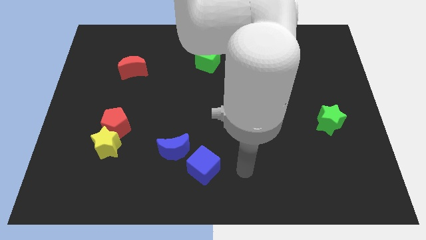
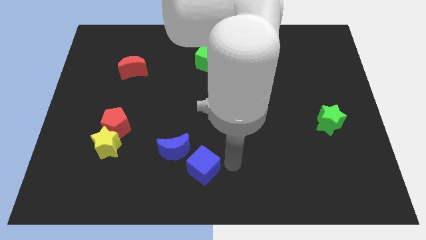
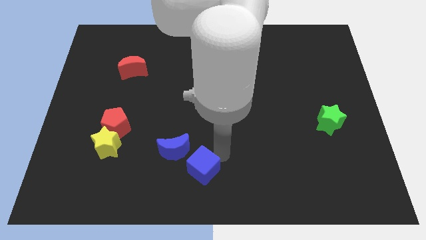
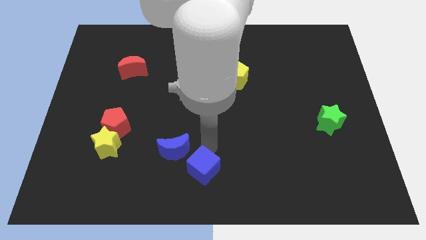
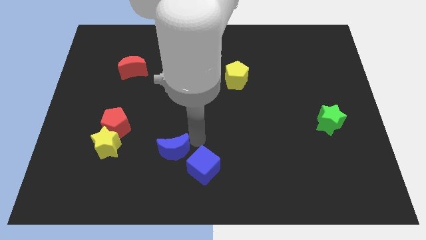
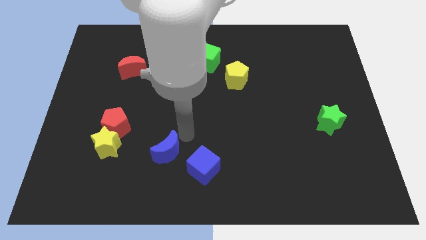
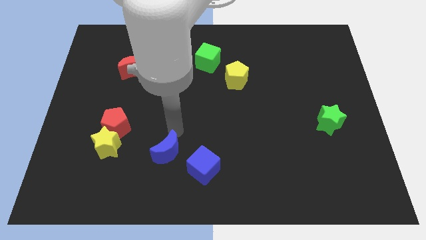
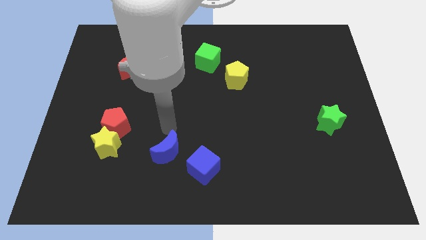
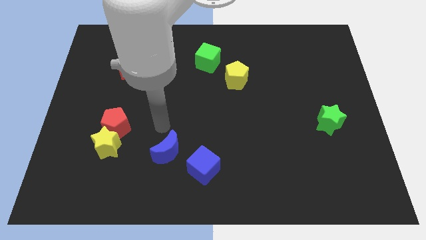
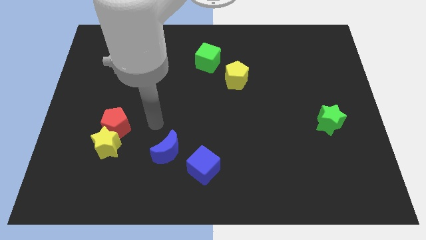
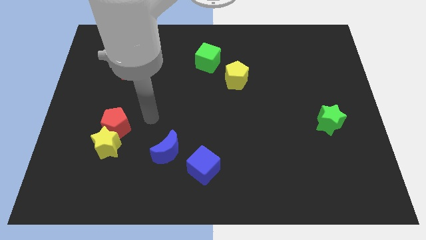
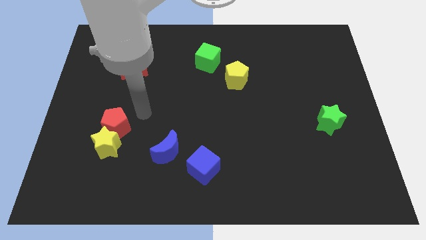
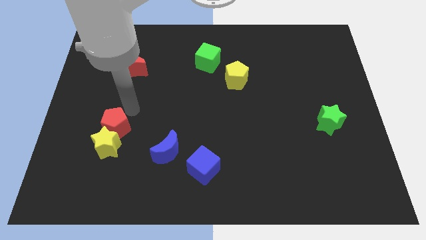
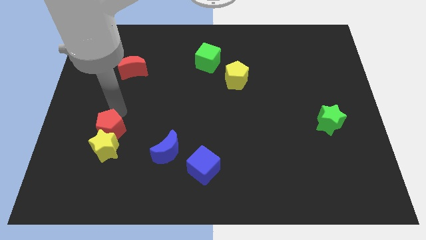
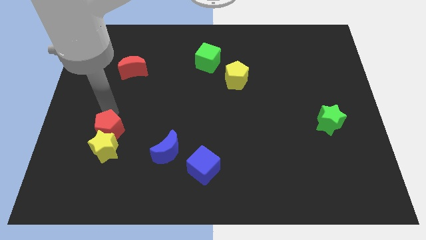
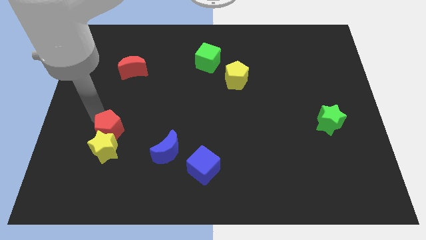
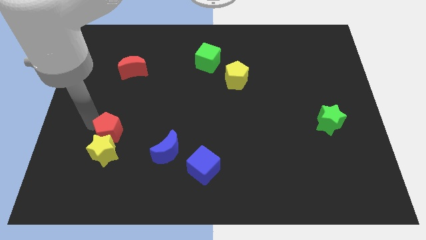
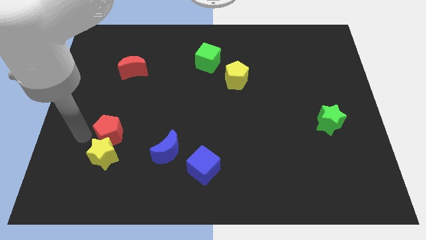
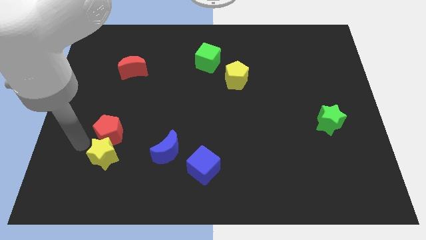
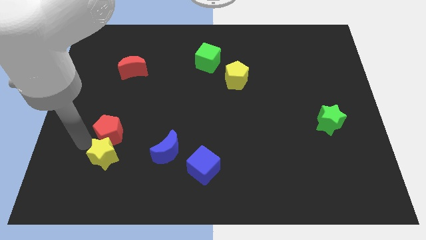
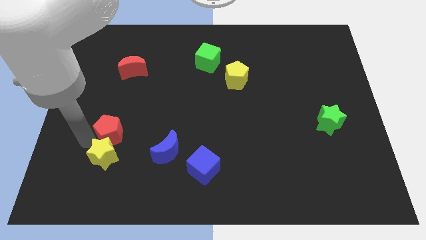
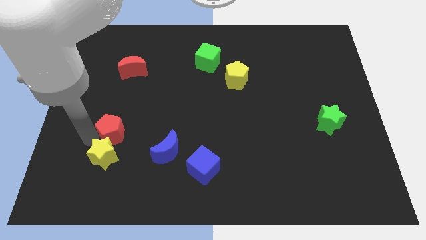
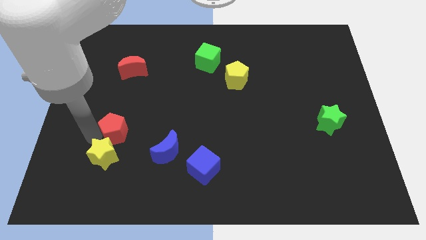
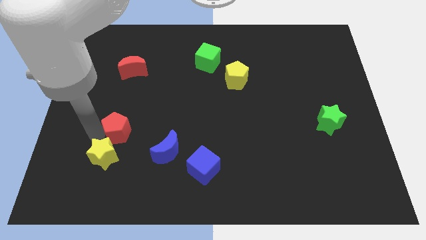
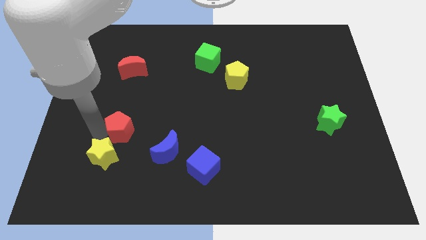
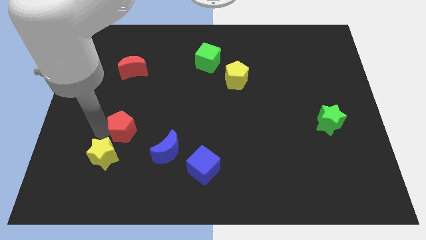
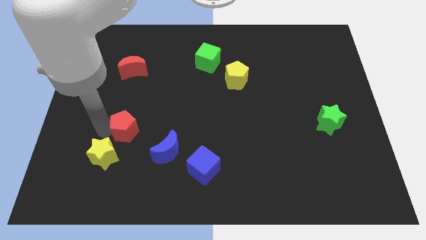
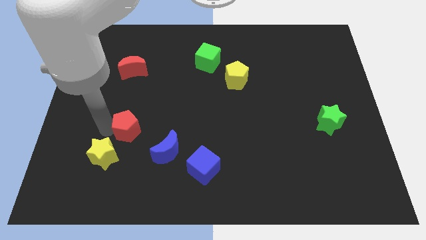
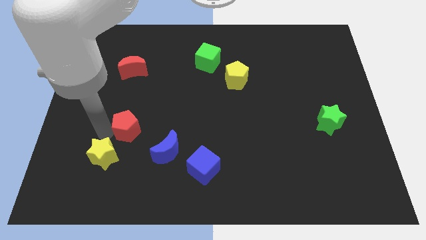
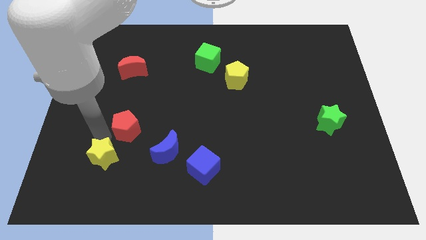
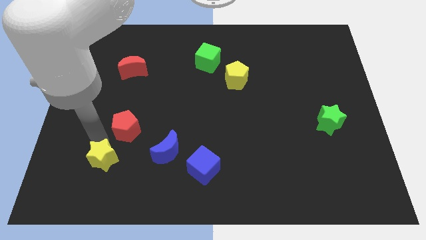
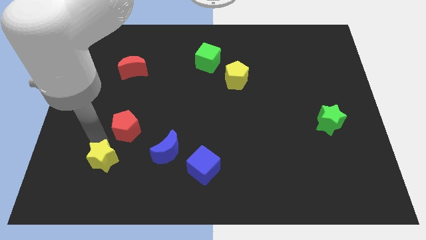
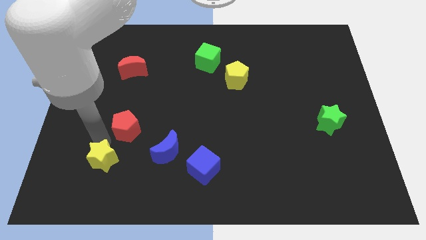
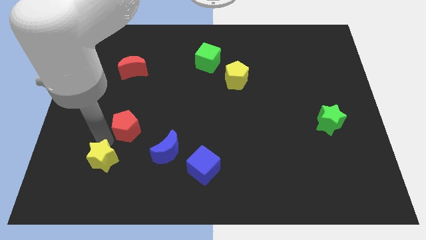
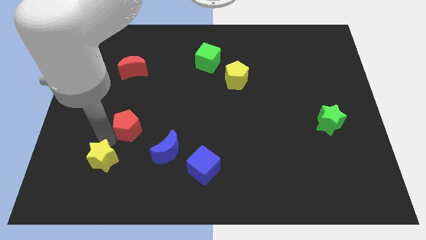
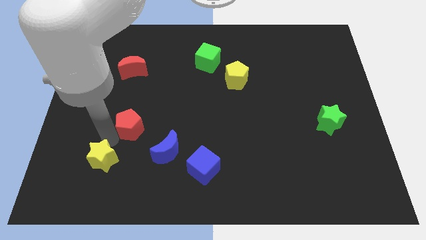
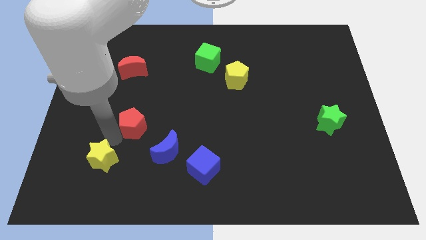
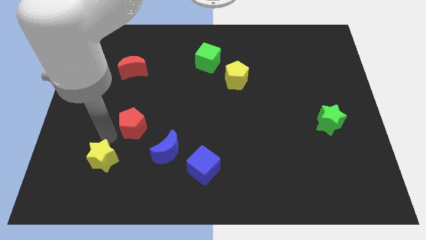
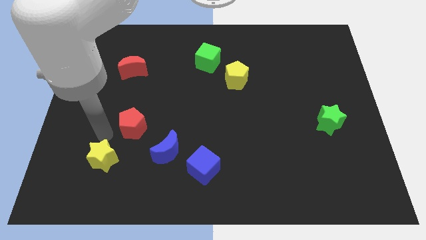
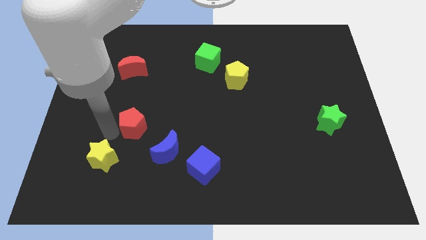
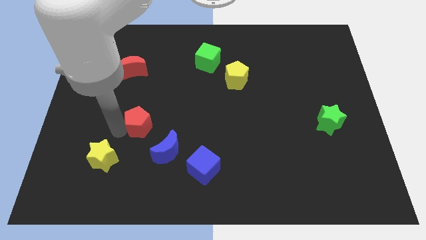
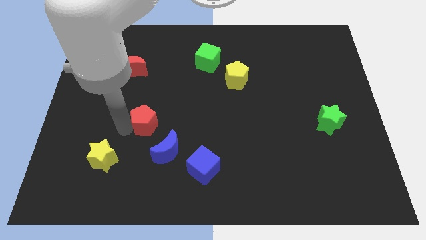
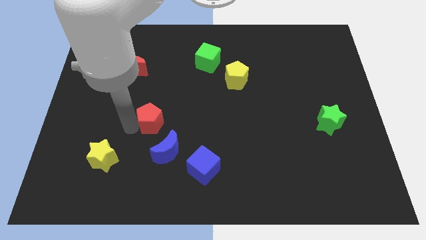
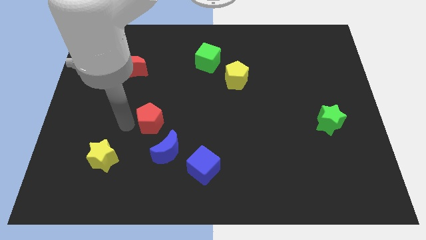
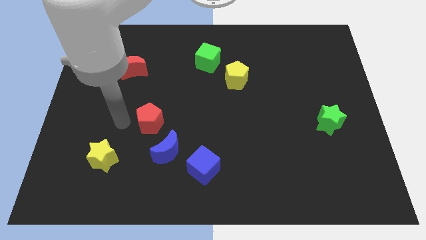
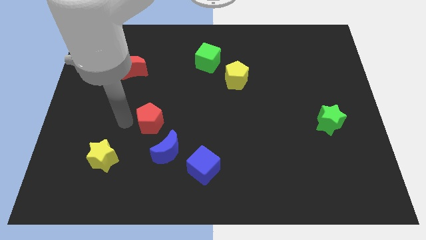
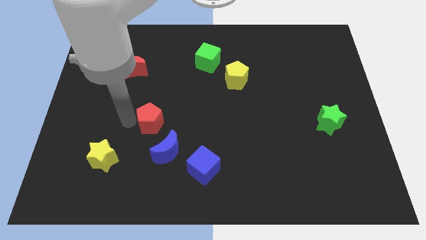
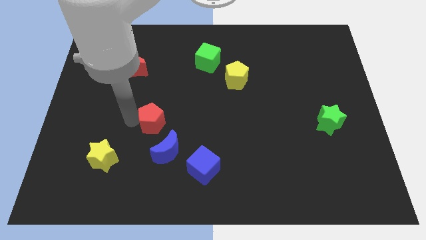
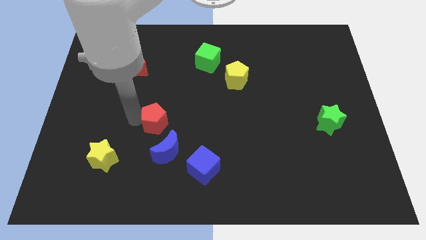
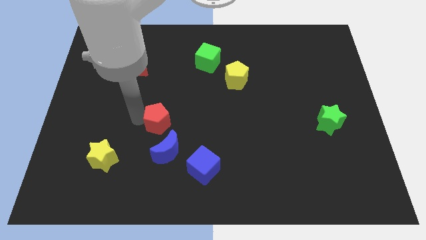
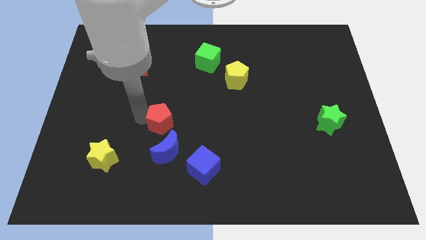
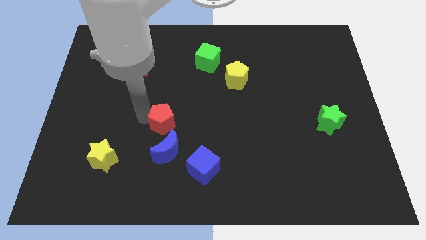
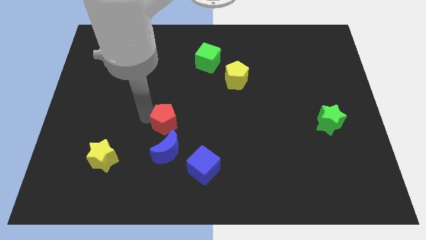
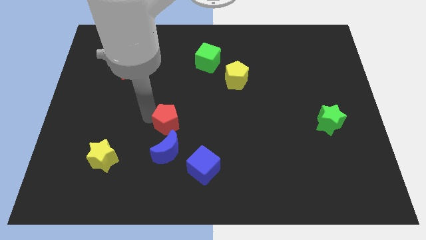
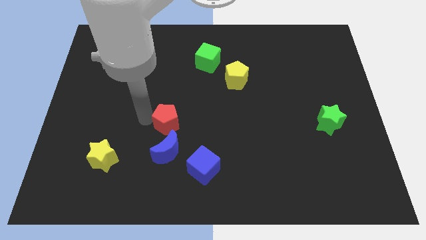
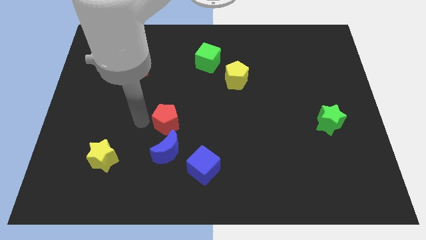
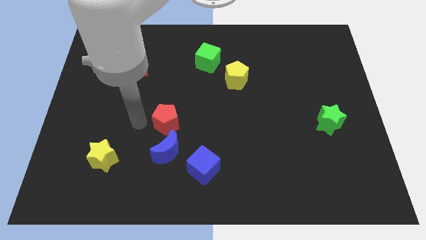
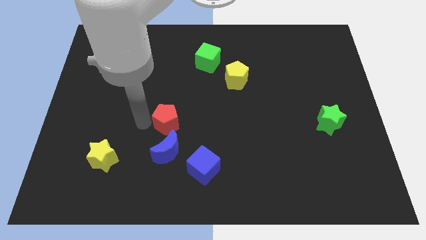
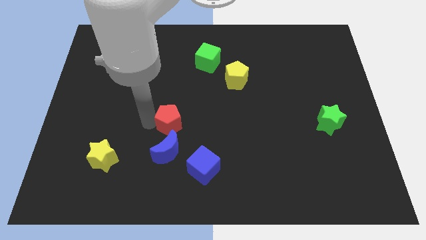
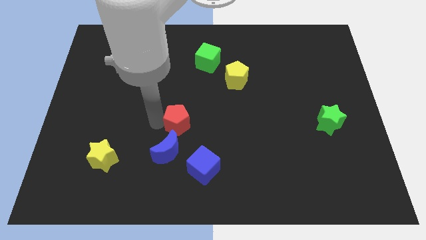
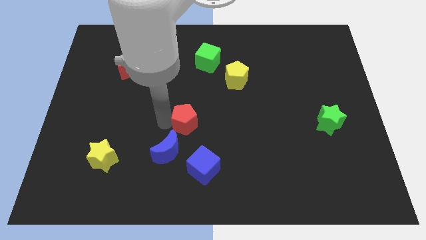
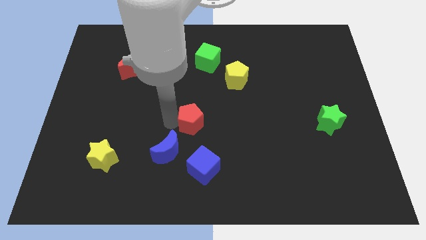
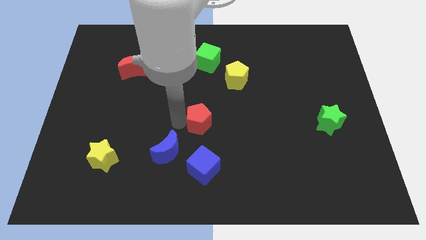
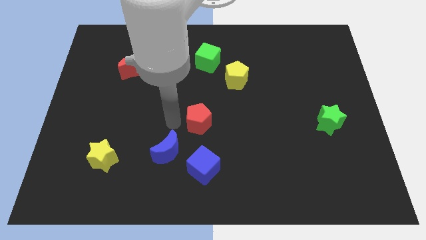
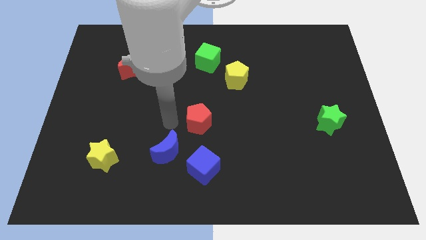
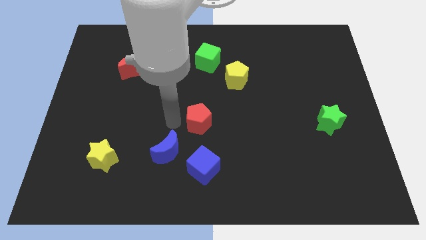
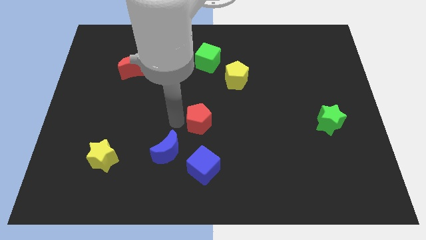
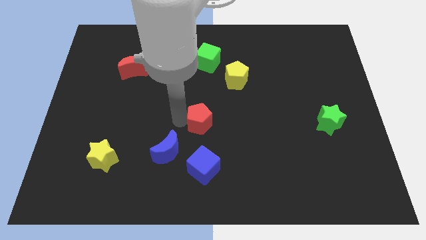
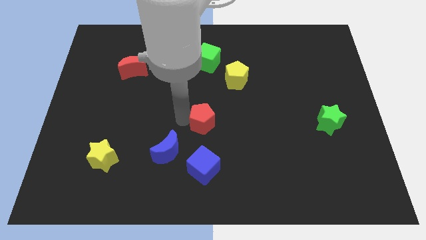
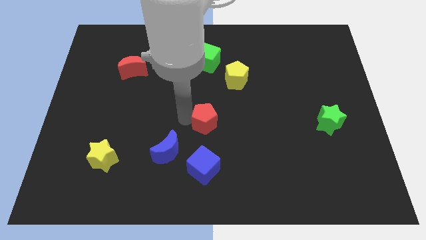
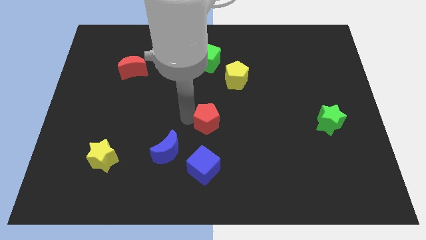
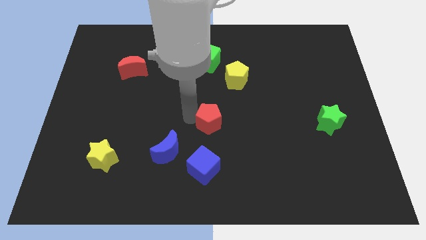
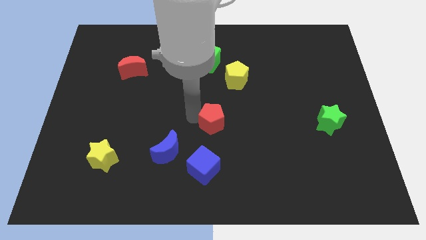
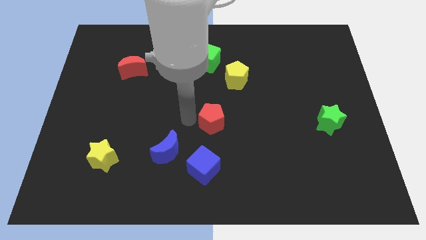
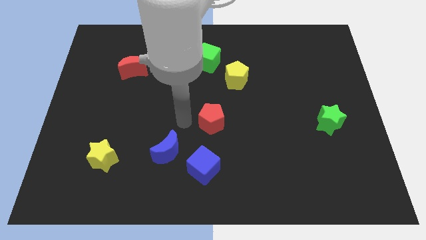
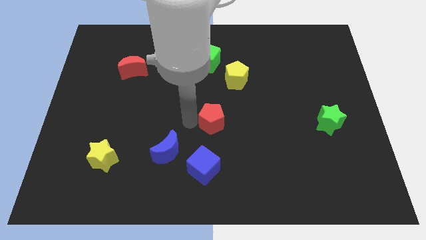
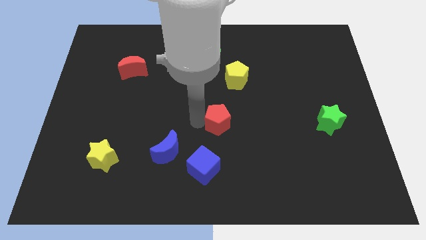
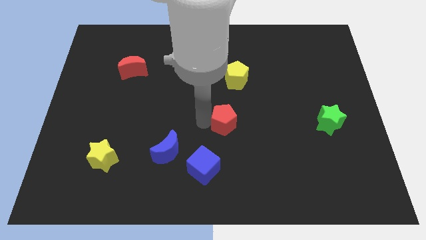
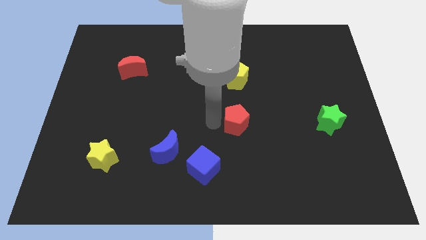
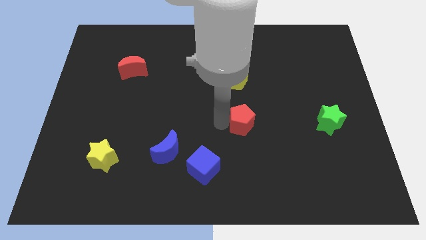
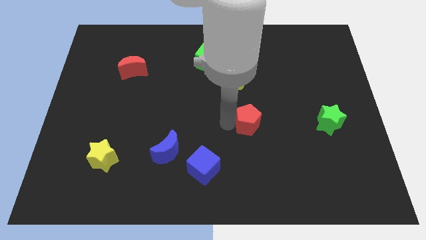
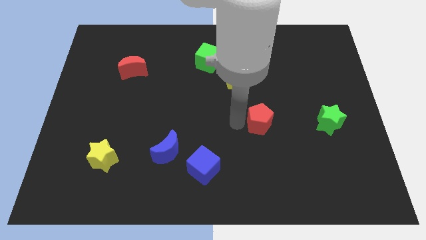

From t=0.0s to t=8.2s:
put the red pentagon just left of the green star
